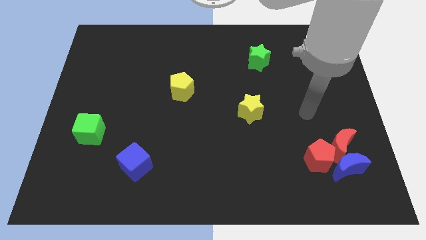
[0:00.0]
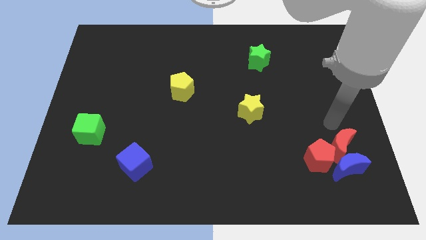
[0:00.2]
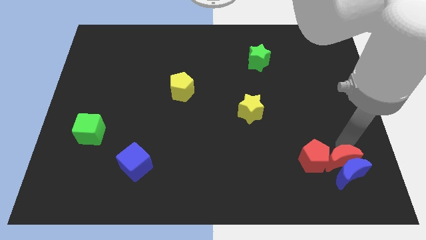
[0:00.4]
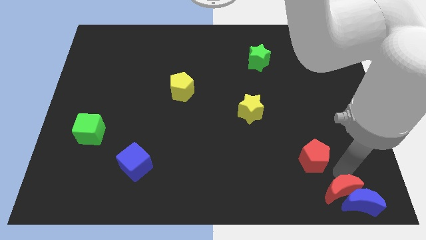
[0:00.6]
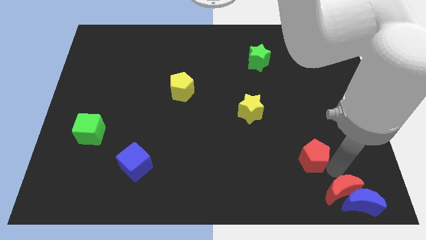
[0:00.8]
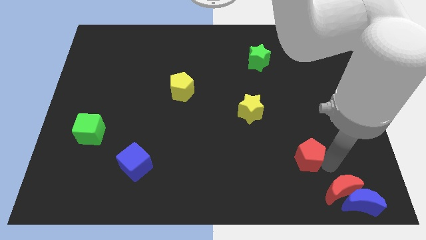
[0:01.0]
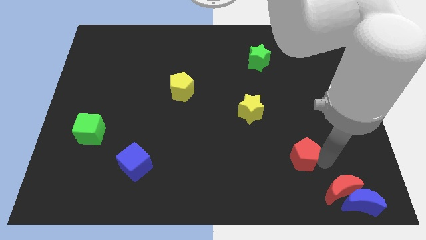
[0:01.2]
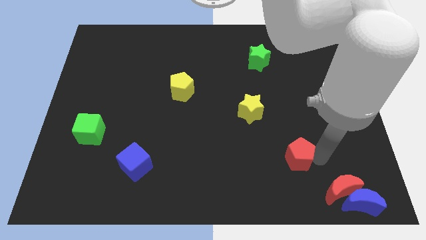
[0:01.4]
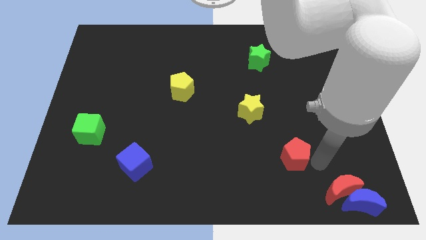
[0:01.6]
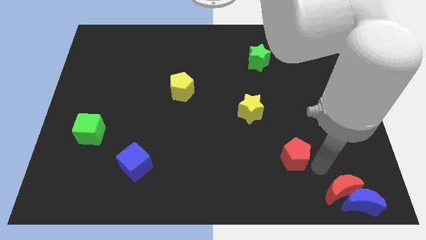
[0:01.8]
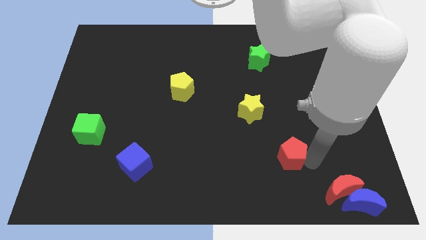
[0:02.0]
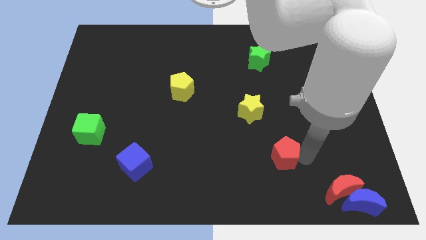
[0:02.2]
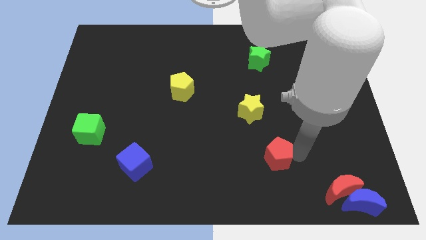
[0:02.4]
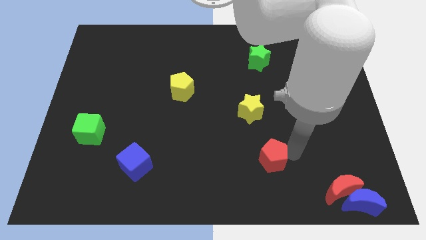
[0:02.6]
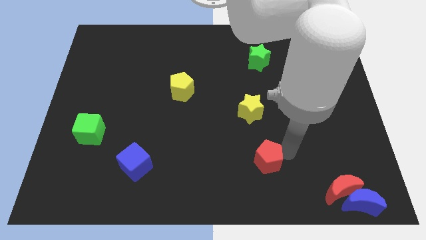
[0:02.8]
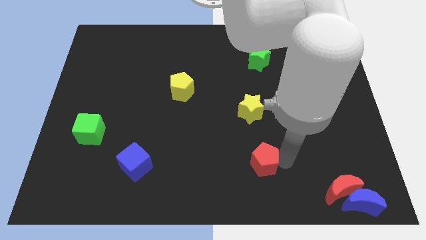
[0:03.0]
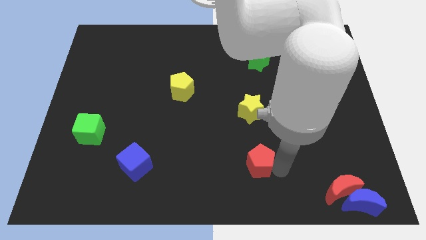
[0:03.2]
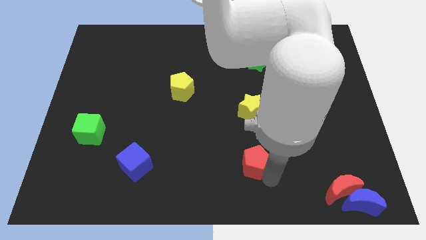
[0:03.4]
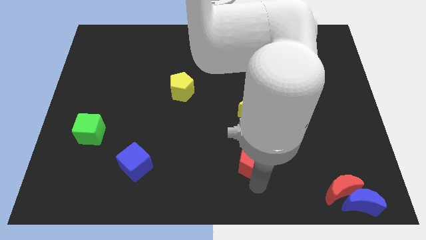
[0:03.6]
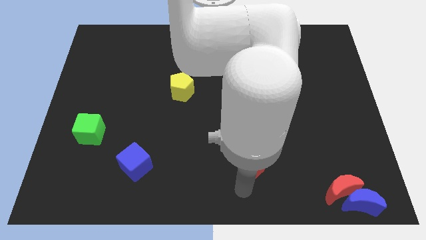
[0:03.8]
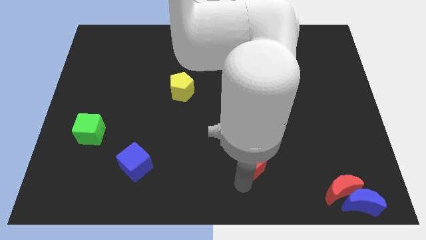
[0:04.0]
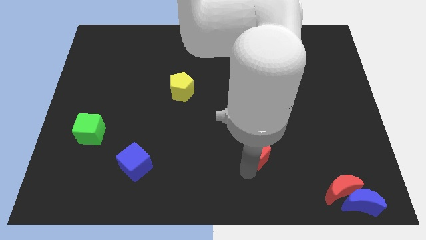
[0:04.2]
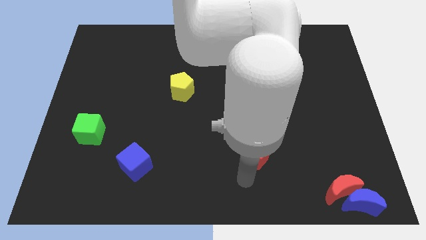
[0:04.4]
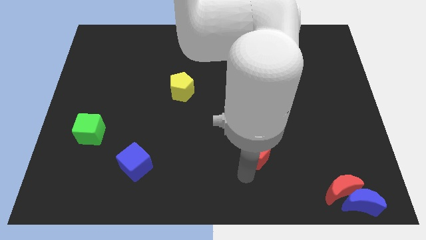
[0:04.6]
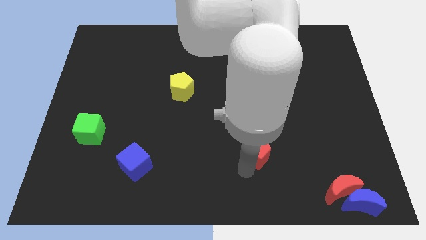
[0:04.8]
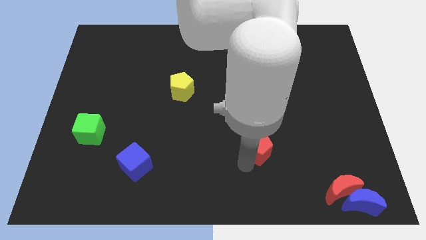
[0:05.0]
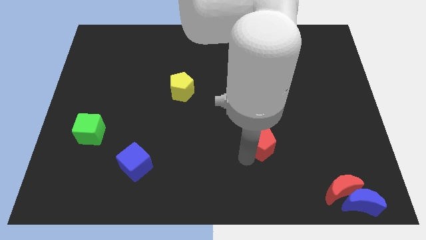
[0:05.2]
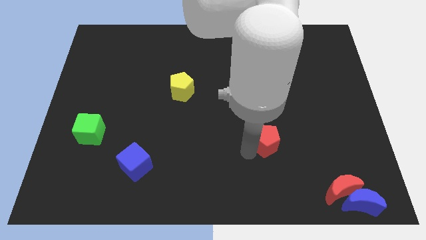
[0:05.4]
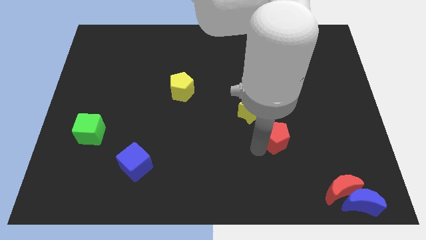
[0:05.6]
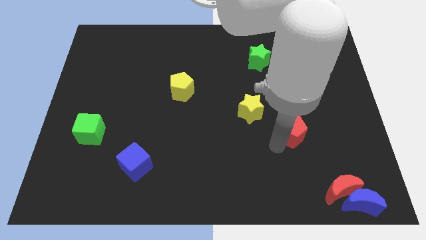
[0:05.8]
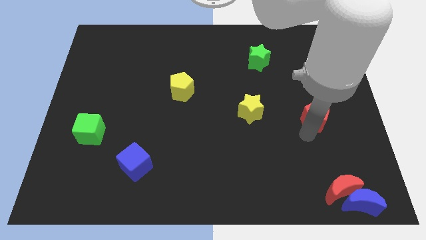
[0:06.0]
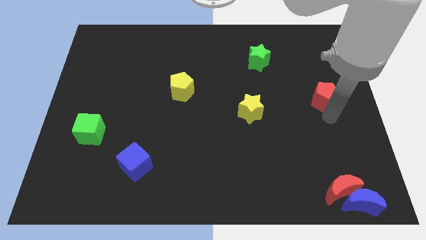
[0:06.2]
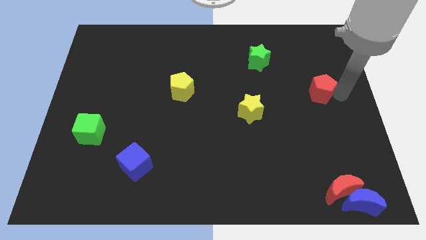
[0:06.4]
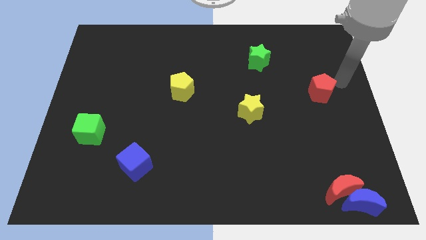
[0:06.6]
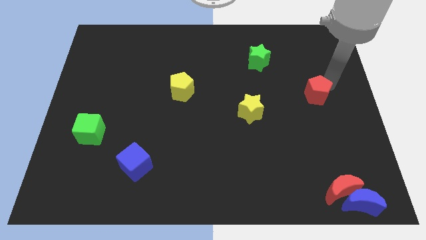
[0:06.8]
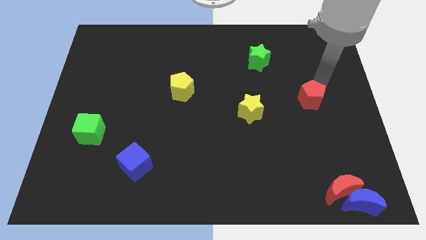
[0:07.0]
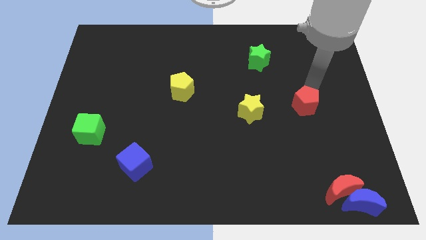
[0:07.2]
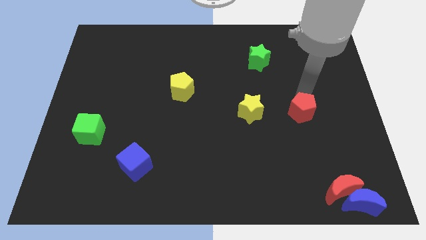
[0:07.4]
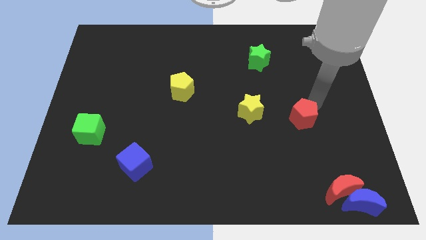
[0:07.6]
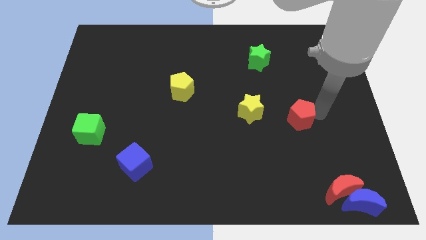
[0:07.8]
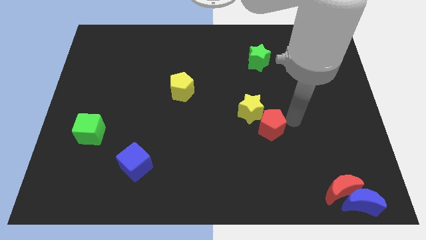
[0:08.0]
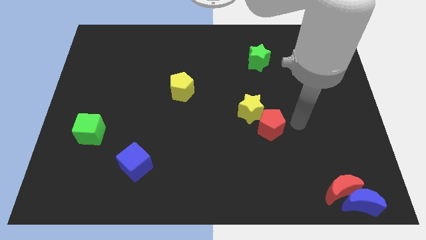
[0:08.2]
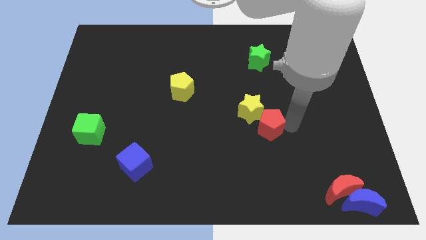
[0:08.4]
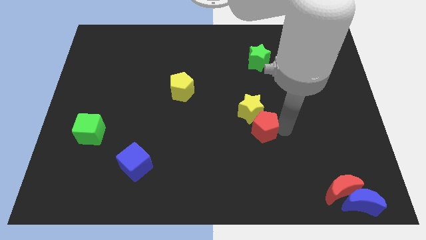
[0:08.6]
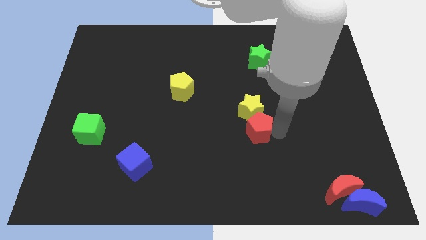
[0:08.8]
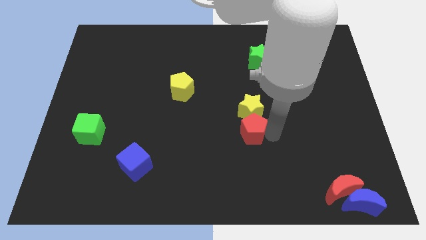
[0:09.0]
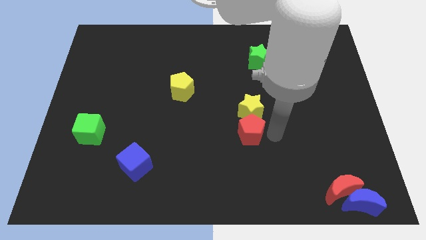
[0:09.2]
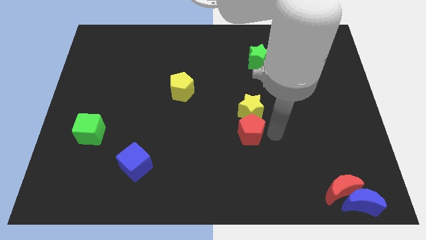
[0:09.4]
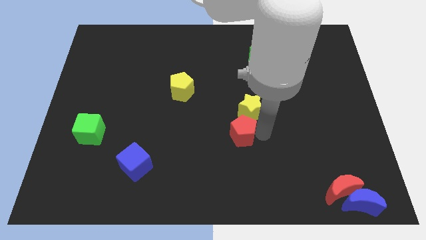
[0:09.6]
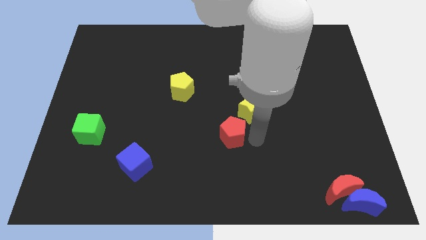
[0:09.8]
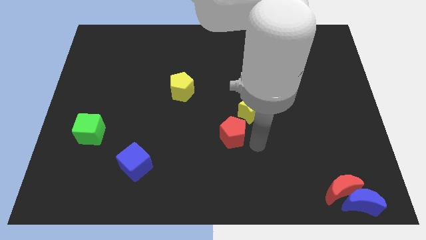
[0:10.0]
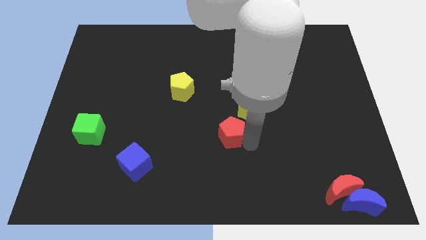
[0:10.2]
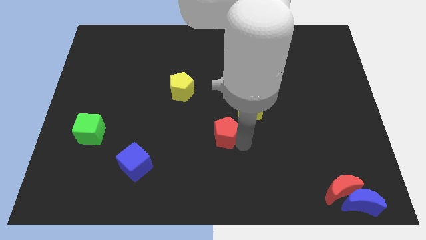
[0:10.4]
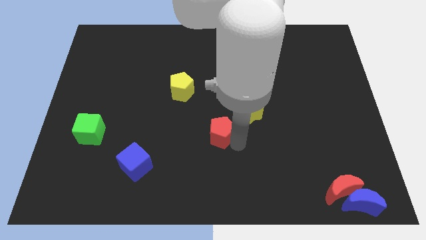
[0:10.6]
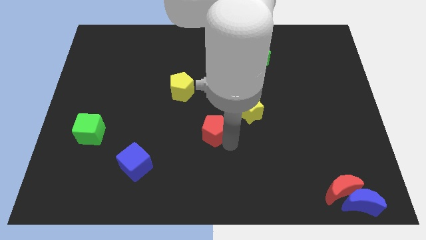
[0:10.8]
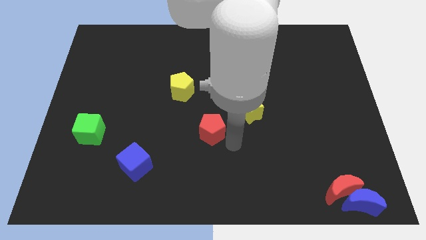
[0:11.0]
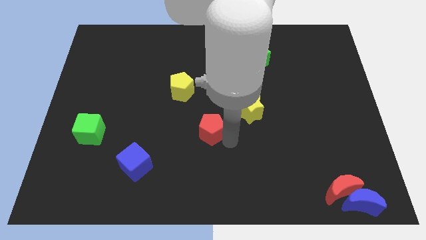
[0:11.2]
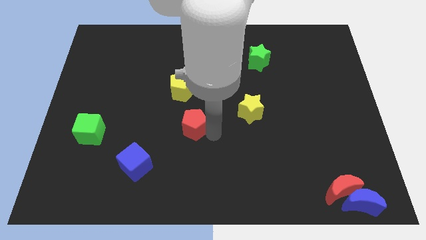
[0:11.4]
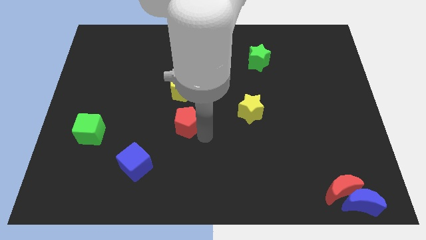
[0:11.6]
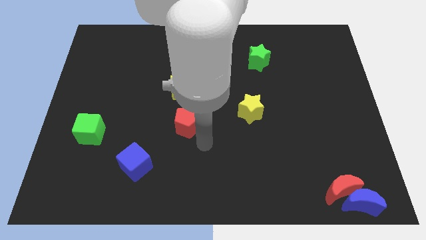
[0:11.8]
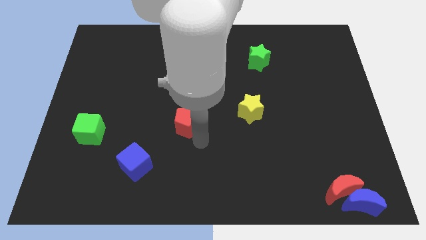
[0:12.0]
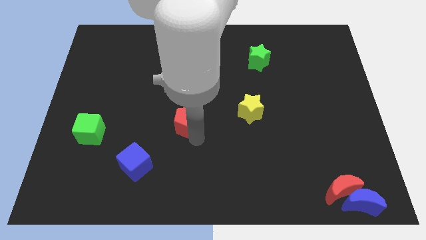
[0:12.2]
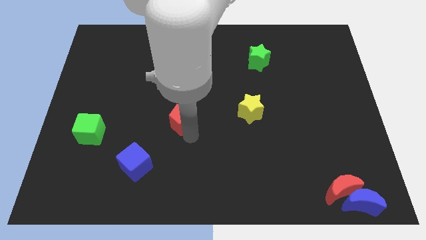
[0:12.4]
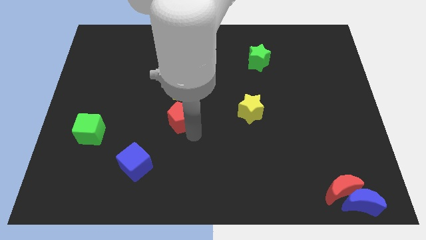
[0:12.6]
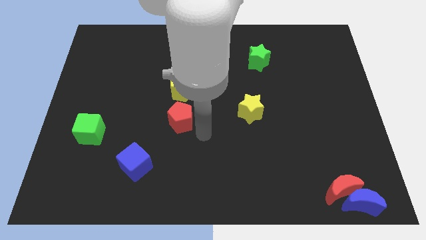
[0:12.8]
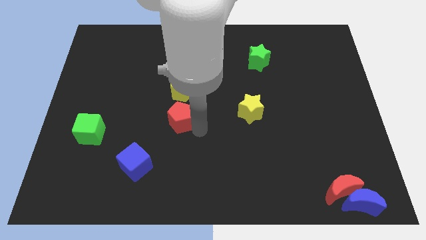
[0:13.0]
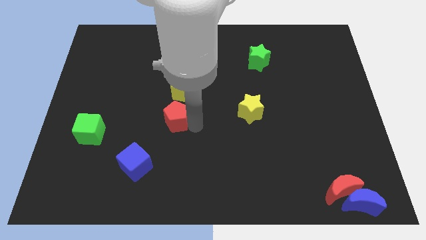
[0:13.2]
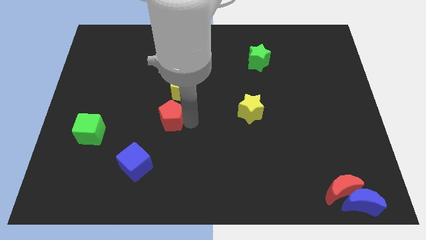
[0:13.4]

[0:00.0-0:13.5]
push the red pentagon to the bottom left side of the yellow pentagon

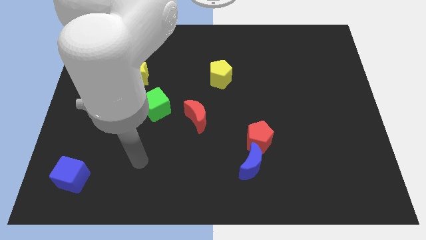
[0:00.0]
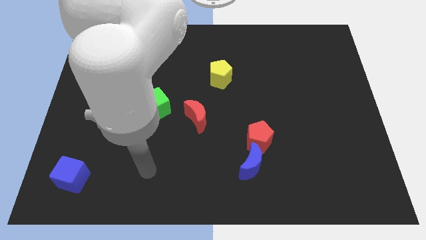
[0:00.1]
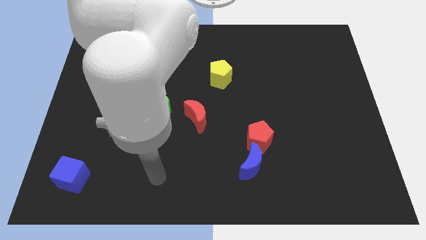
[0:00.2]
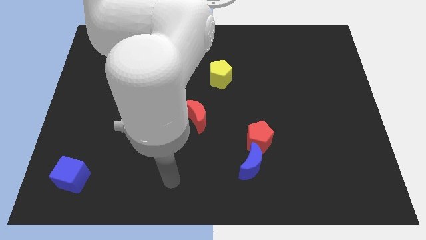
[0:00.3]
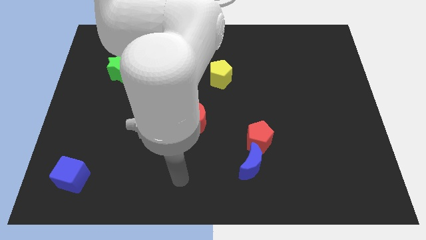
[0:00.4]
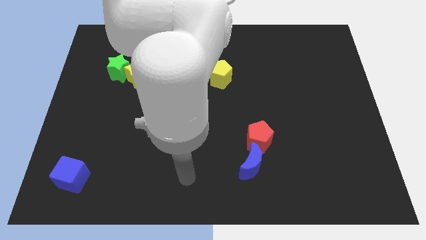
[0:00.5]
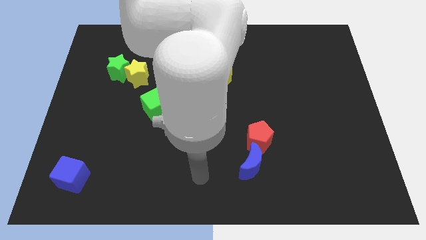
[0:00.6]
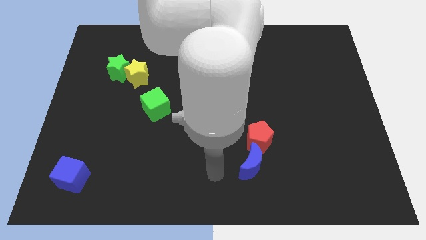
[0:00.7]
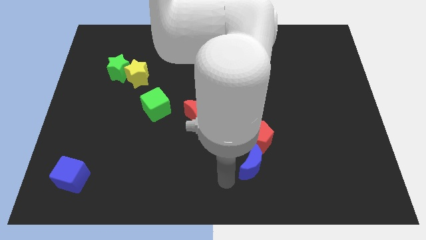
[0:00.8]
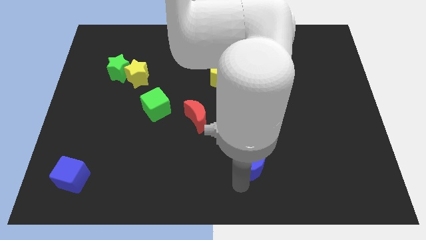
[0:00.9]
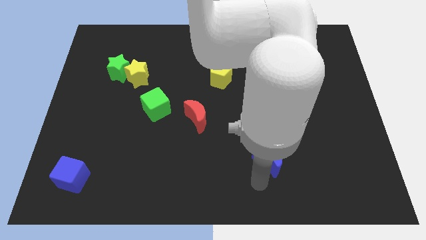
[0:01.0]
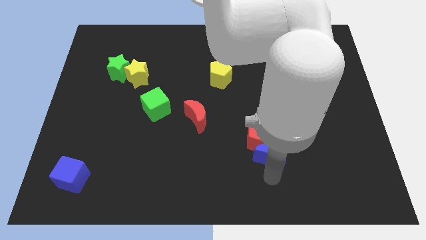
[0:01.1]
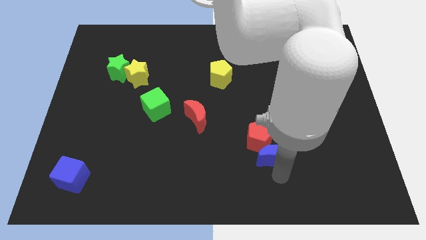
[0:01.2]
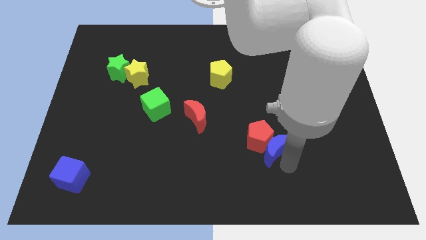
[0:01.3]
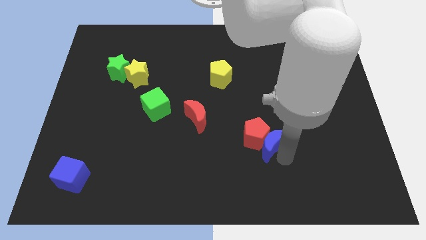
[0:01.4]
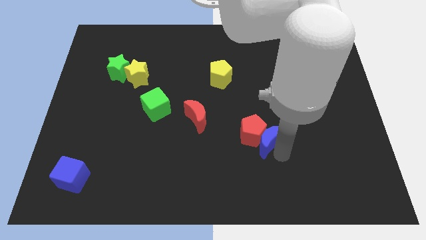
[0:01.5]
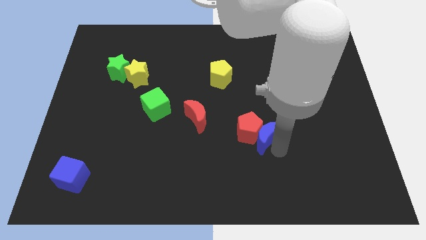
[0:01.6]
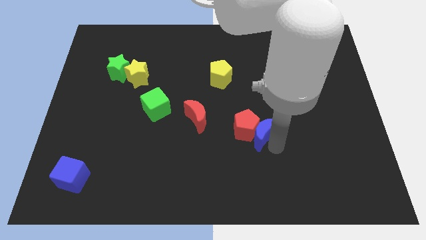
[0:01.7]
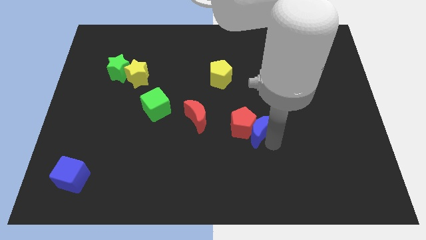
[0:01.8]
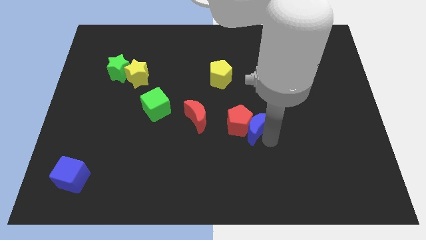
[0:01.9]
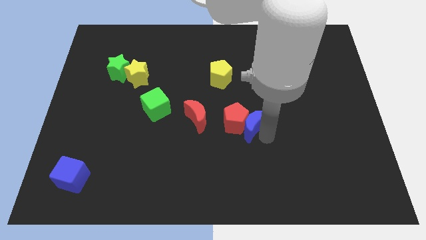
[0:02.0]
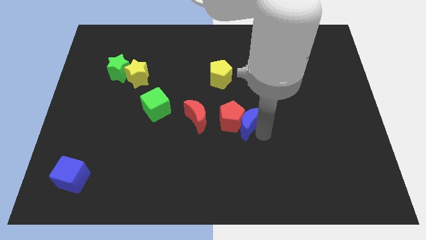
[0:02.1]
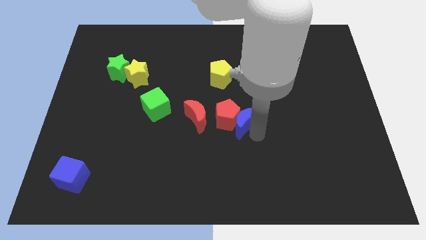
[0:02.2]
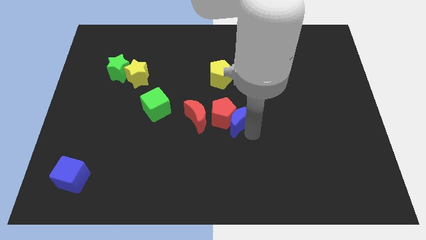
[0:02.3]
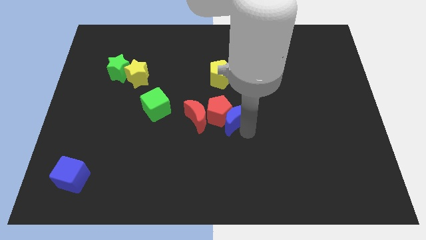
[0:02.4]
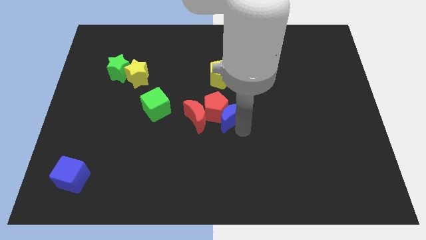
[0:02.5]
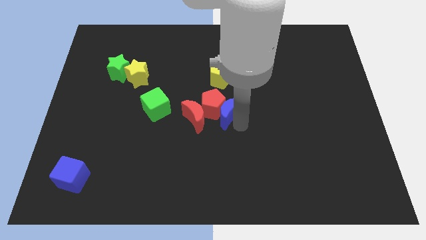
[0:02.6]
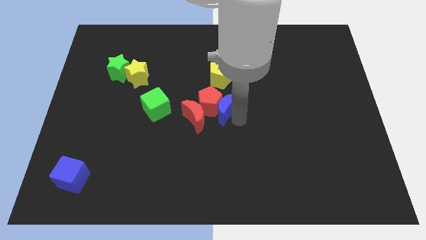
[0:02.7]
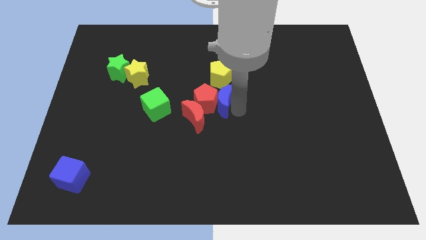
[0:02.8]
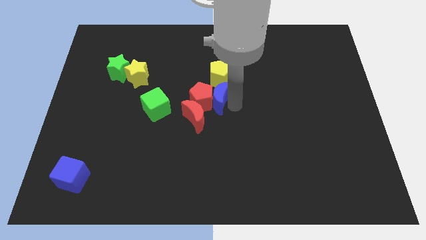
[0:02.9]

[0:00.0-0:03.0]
move the red pentagon to the top left side of the red moon
